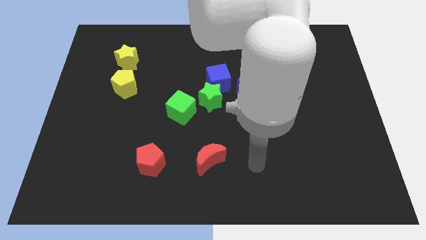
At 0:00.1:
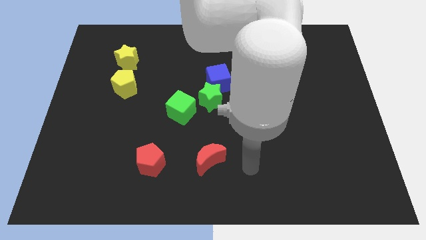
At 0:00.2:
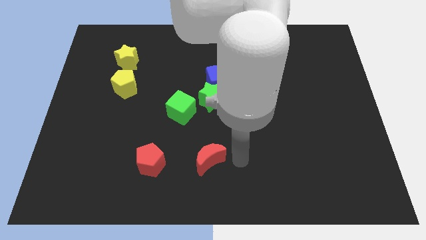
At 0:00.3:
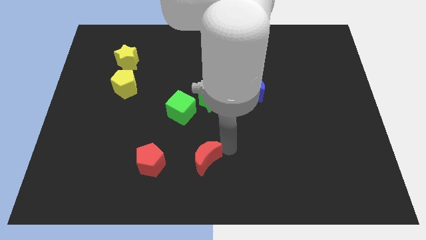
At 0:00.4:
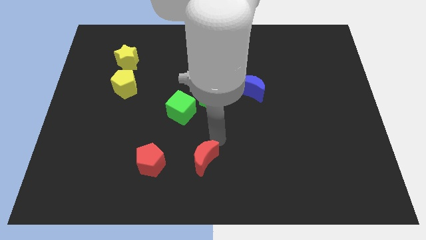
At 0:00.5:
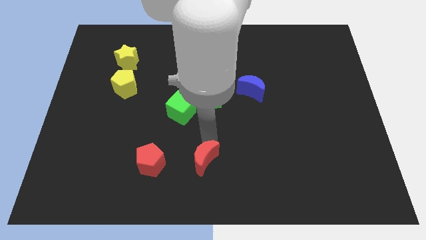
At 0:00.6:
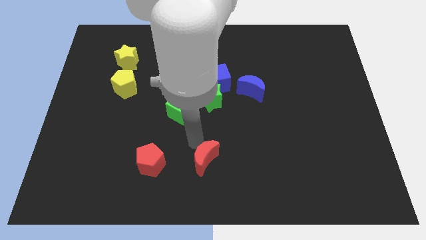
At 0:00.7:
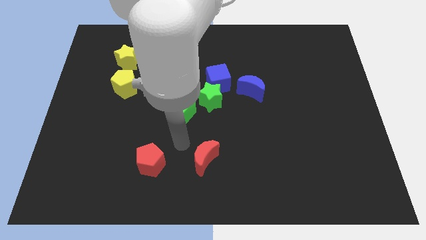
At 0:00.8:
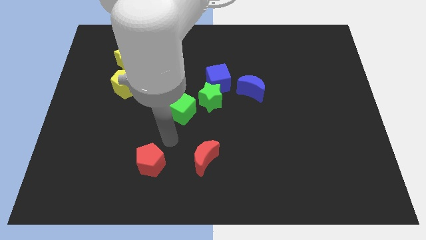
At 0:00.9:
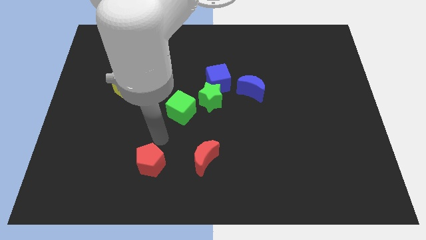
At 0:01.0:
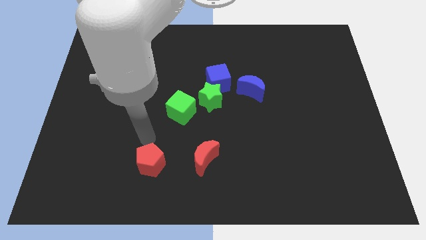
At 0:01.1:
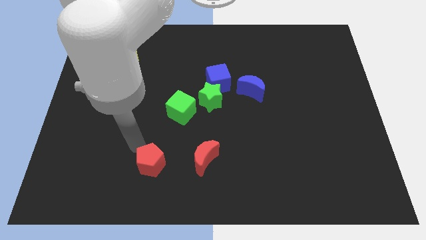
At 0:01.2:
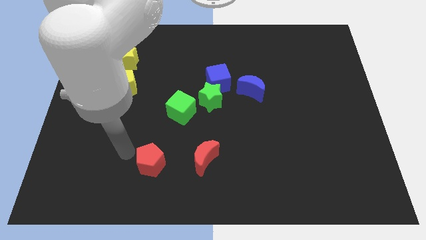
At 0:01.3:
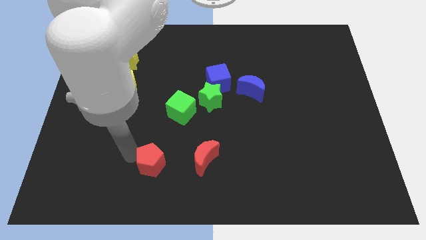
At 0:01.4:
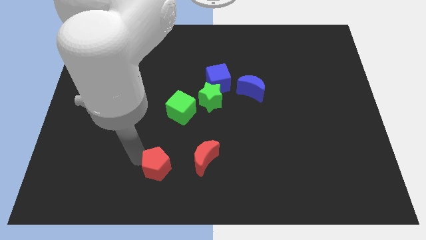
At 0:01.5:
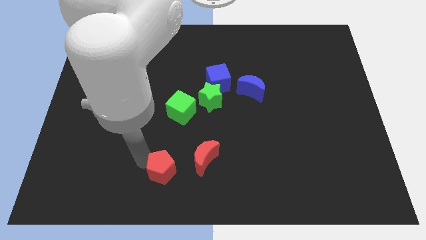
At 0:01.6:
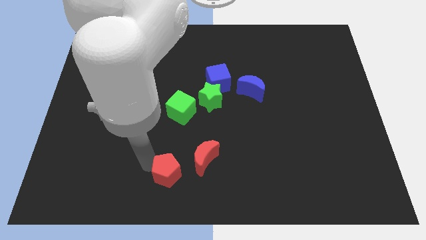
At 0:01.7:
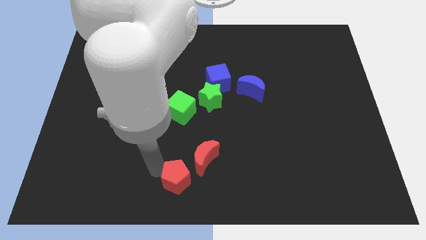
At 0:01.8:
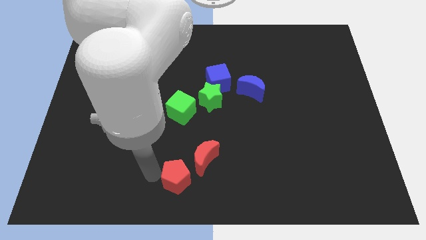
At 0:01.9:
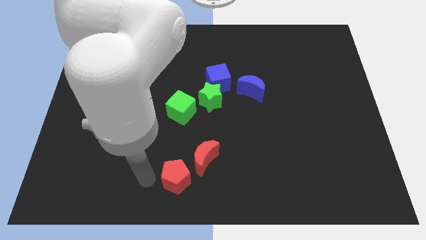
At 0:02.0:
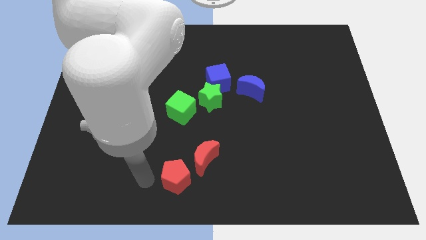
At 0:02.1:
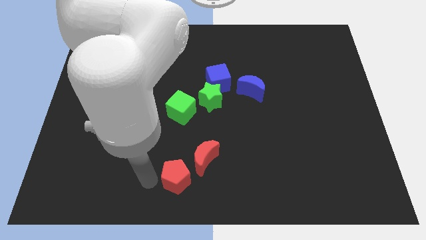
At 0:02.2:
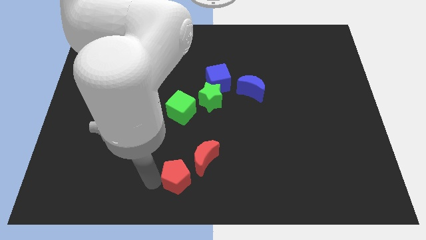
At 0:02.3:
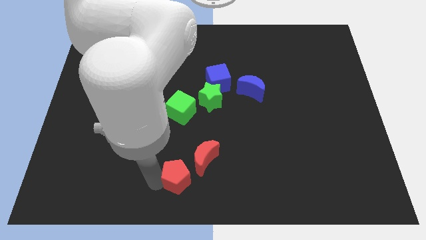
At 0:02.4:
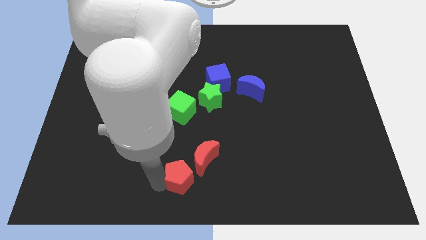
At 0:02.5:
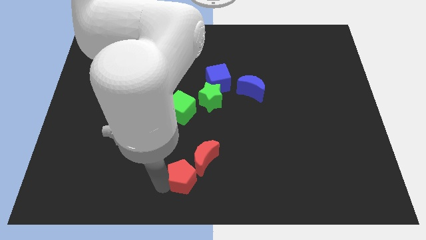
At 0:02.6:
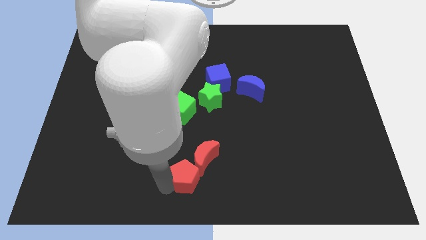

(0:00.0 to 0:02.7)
push the red pentagon to the right a little bit

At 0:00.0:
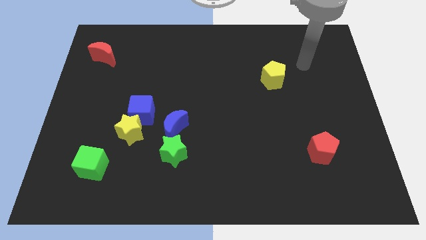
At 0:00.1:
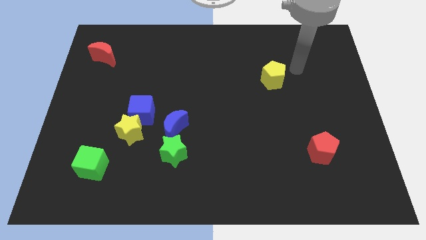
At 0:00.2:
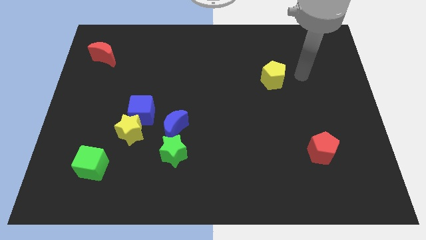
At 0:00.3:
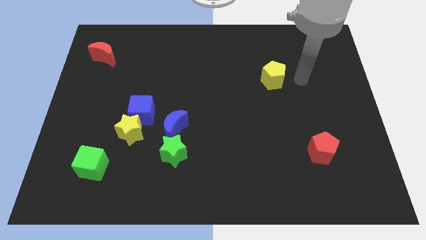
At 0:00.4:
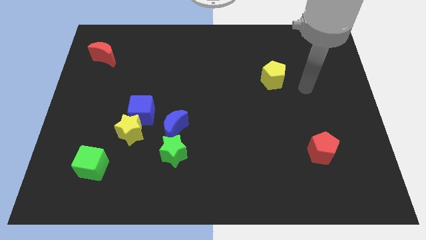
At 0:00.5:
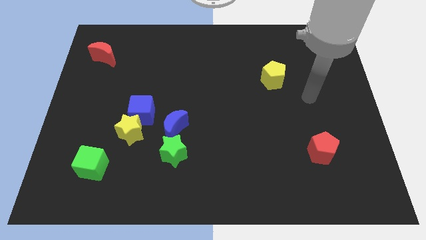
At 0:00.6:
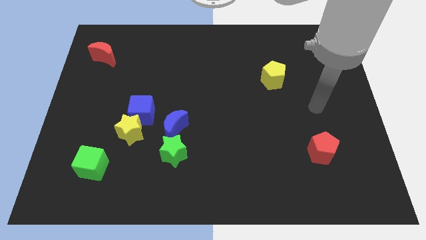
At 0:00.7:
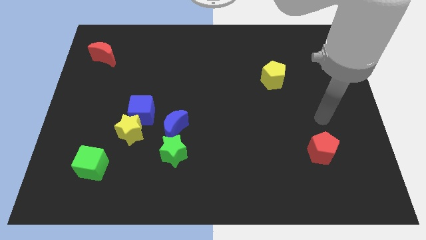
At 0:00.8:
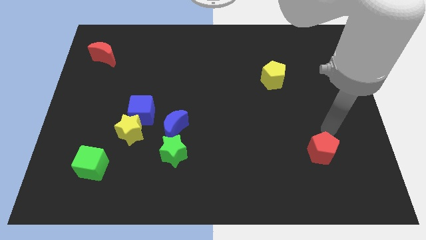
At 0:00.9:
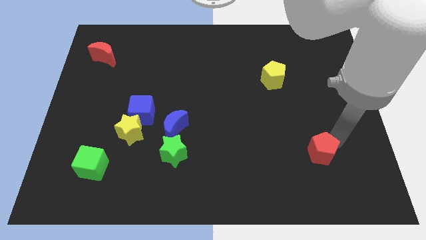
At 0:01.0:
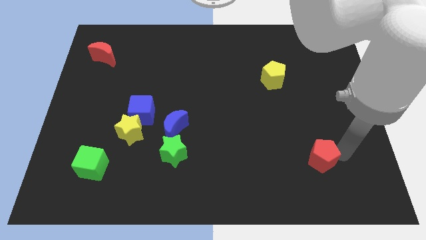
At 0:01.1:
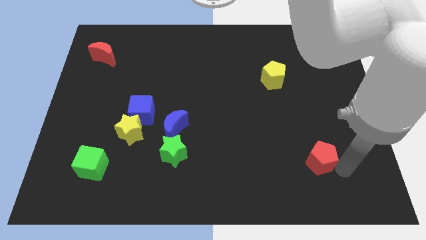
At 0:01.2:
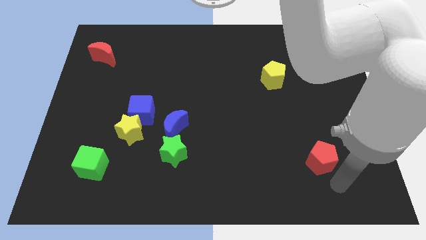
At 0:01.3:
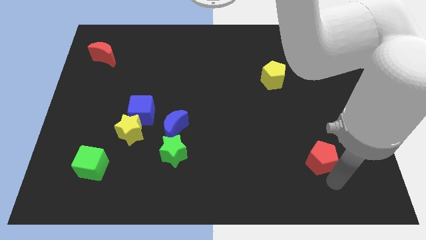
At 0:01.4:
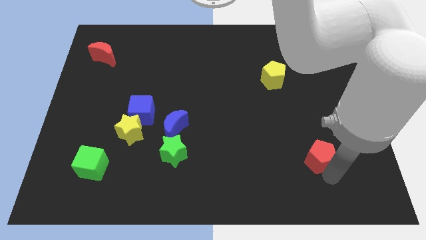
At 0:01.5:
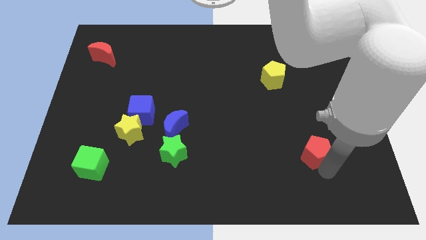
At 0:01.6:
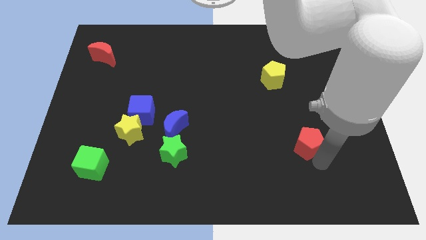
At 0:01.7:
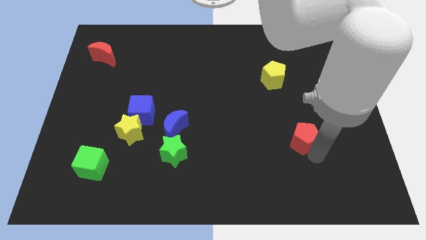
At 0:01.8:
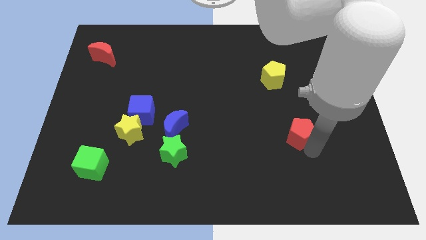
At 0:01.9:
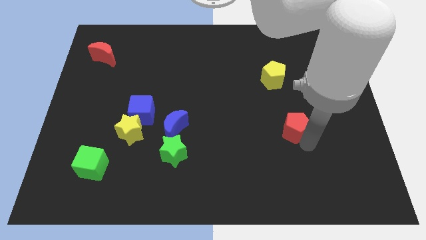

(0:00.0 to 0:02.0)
slightly push the red pentagon upwards and then to the left

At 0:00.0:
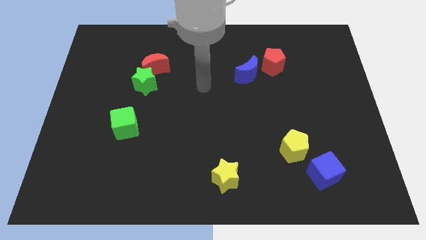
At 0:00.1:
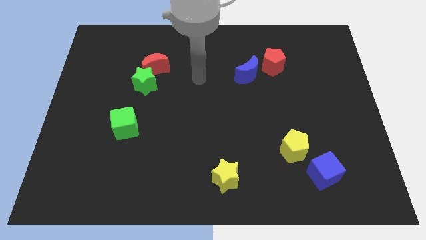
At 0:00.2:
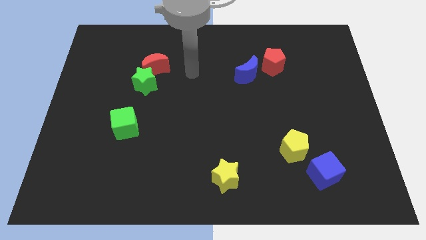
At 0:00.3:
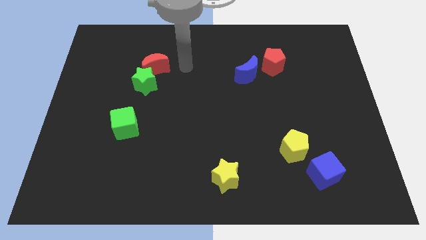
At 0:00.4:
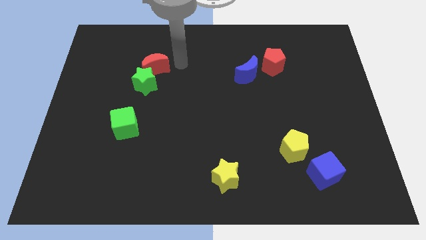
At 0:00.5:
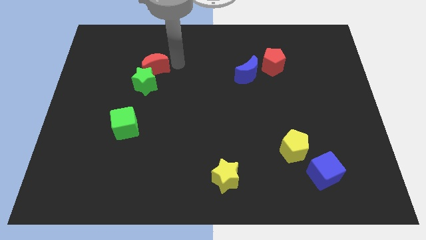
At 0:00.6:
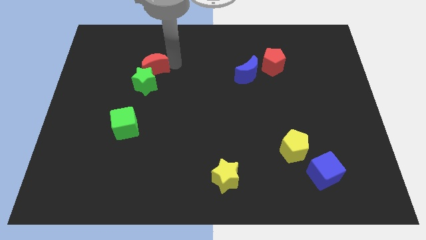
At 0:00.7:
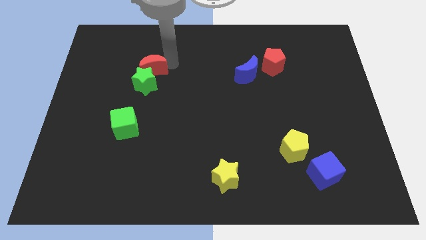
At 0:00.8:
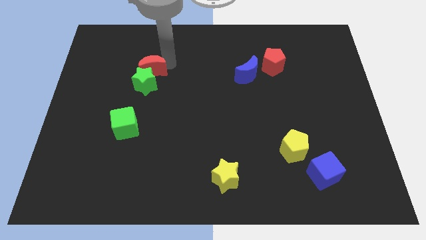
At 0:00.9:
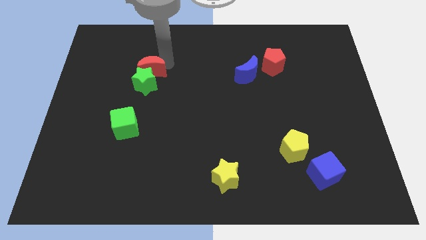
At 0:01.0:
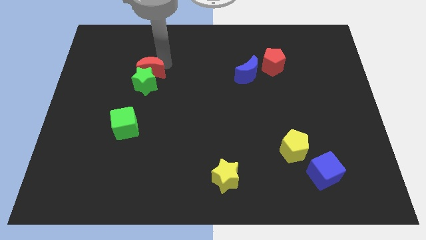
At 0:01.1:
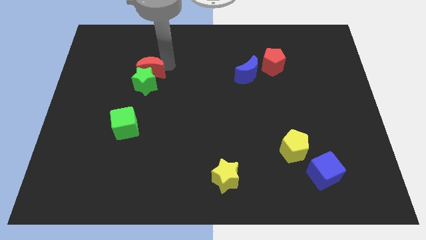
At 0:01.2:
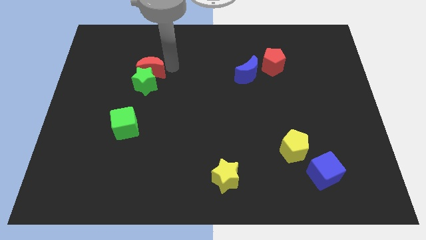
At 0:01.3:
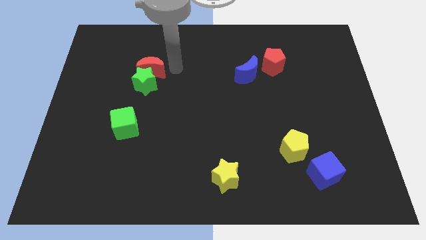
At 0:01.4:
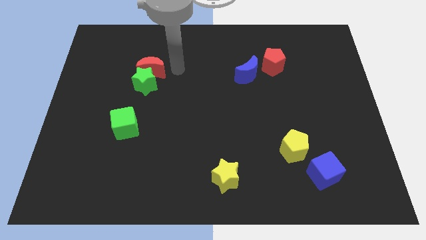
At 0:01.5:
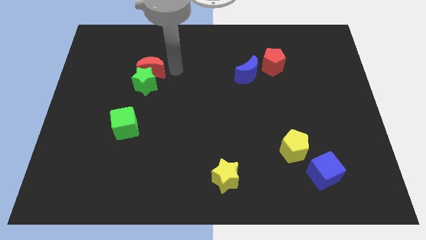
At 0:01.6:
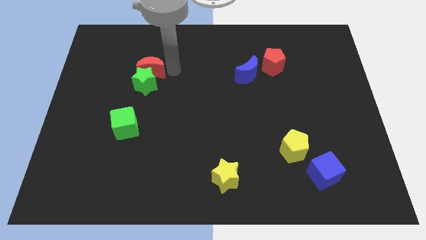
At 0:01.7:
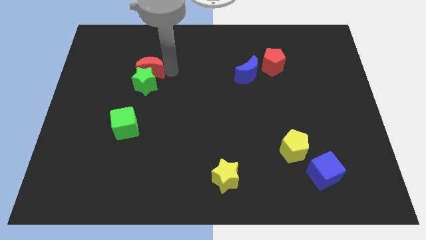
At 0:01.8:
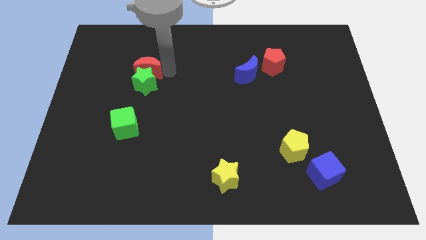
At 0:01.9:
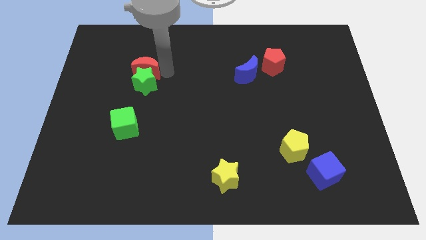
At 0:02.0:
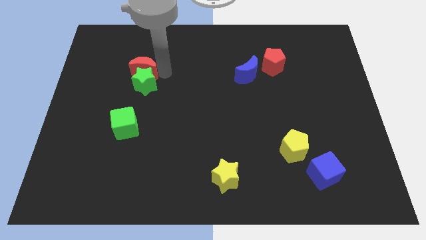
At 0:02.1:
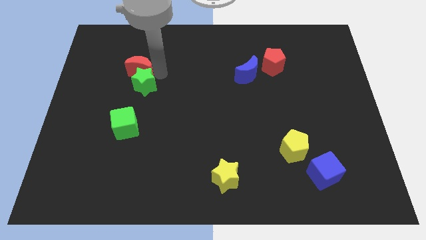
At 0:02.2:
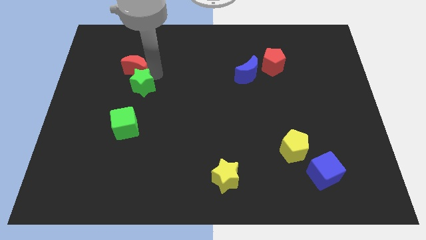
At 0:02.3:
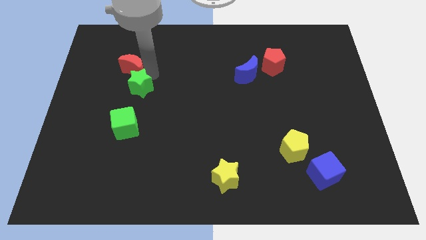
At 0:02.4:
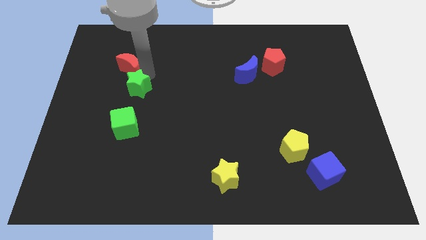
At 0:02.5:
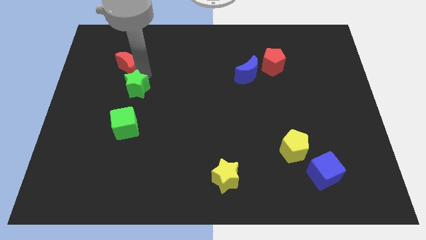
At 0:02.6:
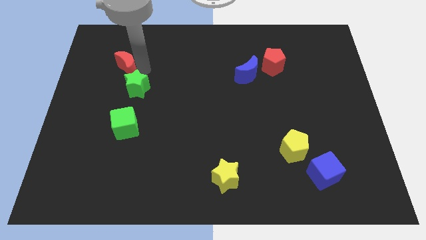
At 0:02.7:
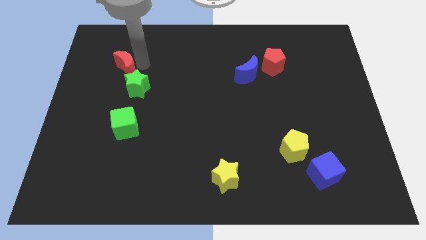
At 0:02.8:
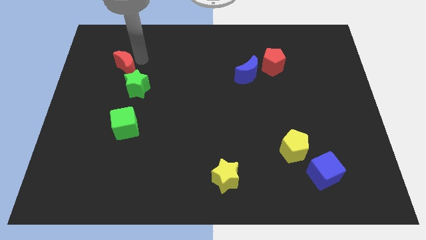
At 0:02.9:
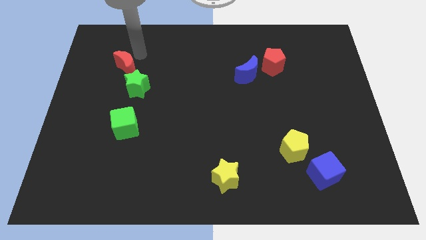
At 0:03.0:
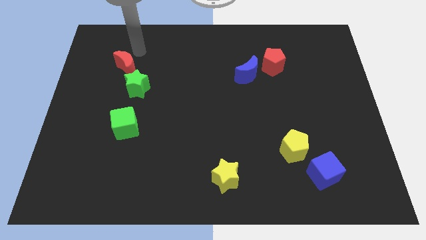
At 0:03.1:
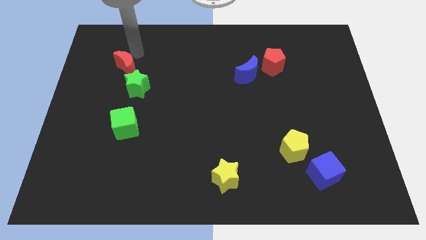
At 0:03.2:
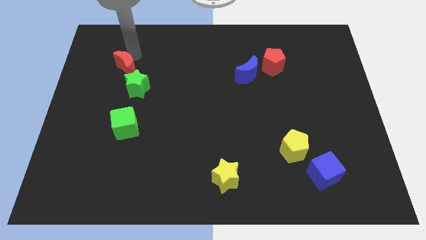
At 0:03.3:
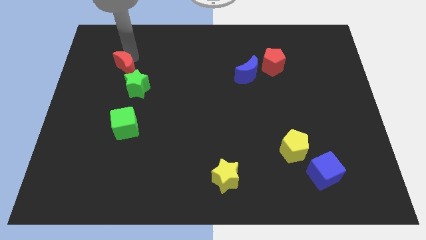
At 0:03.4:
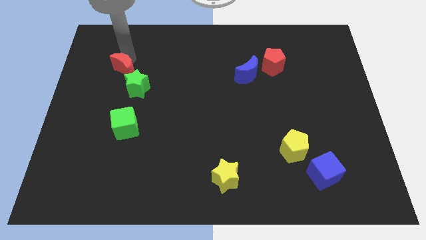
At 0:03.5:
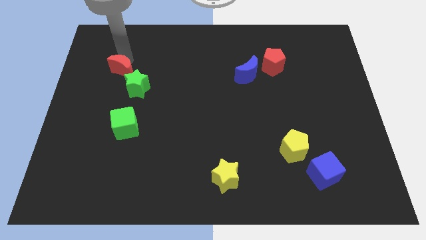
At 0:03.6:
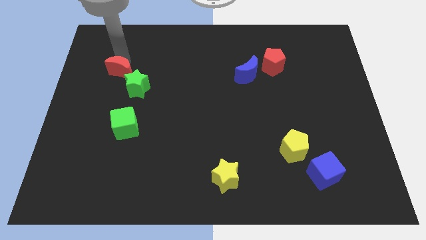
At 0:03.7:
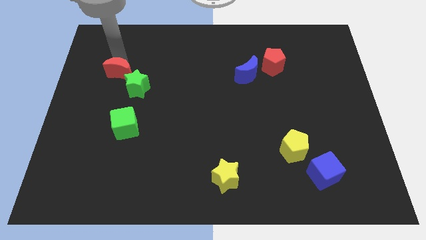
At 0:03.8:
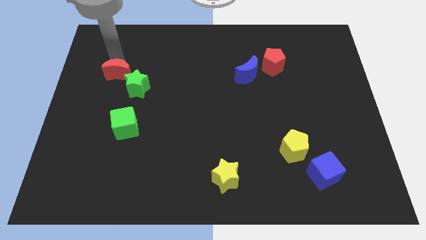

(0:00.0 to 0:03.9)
push the red moon somewhat diagonally down and left
